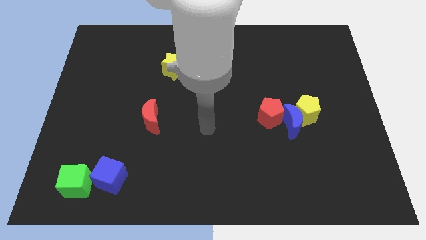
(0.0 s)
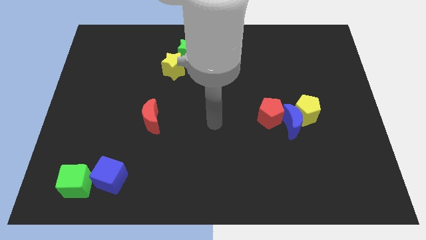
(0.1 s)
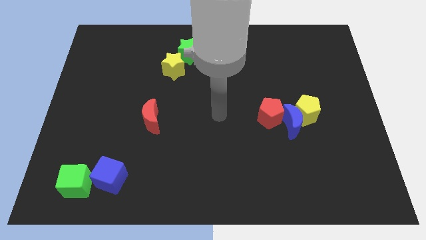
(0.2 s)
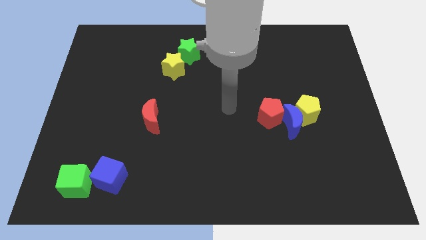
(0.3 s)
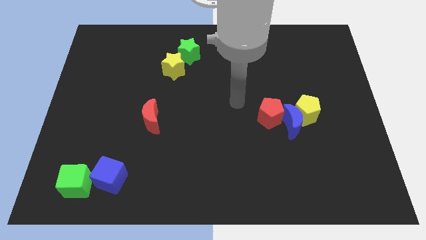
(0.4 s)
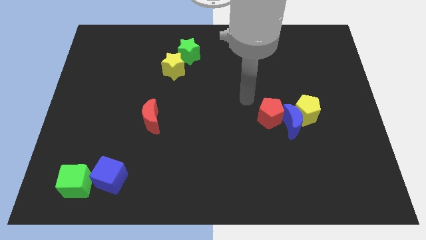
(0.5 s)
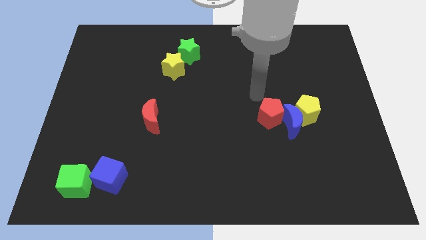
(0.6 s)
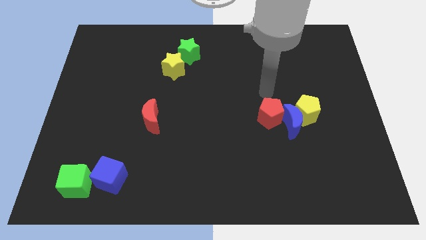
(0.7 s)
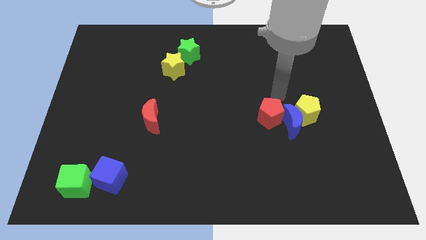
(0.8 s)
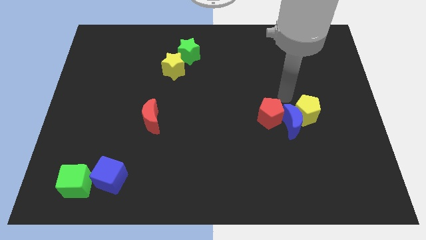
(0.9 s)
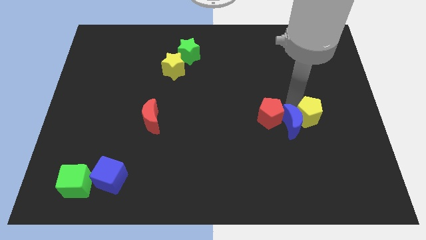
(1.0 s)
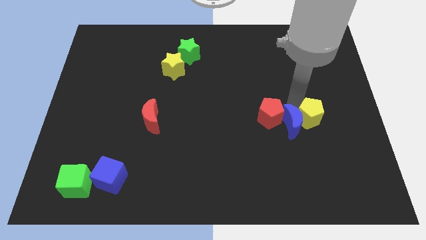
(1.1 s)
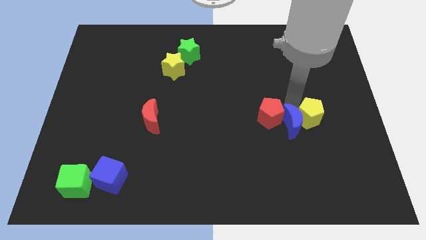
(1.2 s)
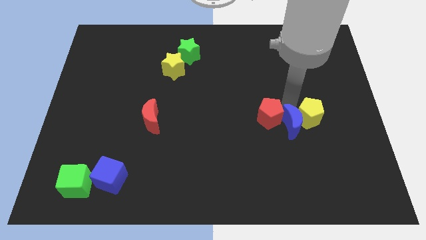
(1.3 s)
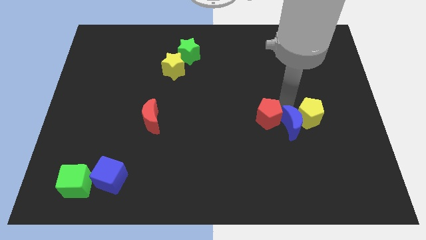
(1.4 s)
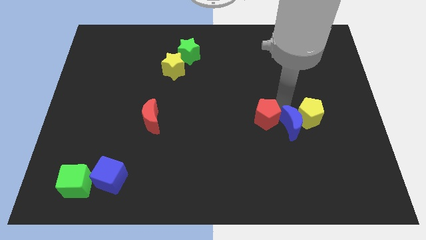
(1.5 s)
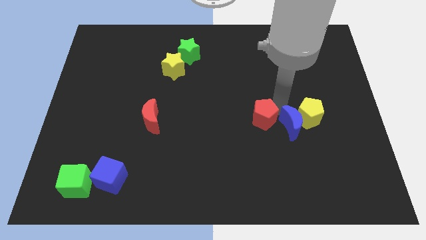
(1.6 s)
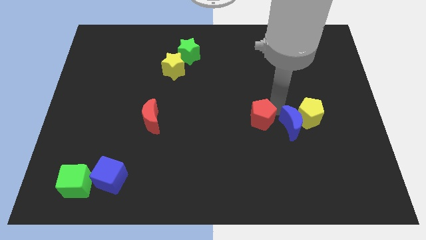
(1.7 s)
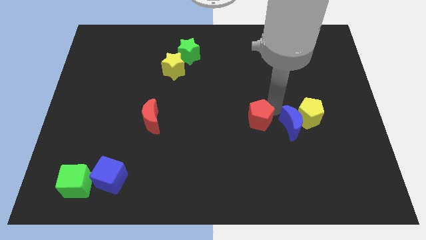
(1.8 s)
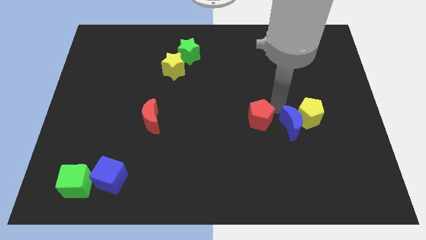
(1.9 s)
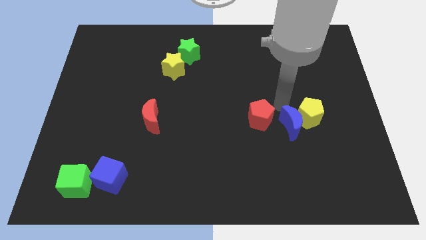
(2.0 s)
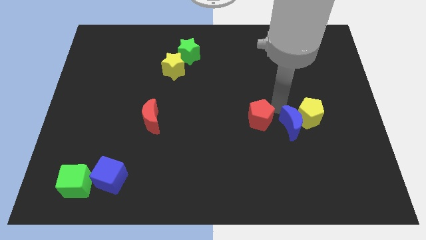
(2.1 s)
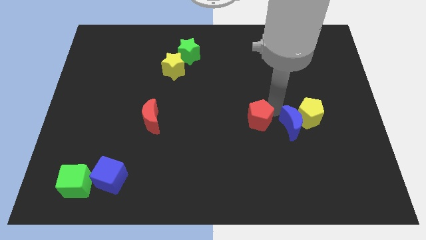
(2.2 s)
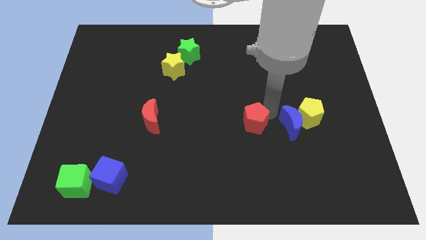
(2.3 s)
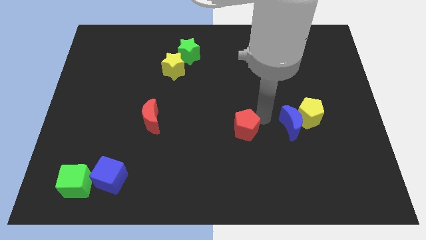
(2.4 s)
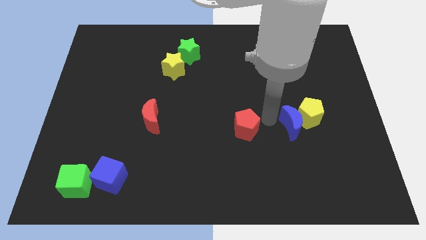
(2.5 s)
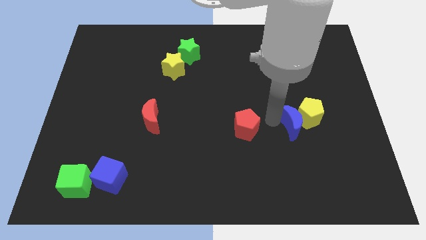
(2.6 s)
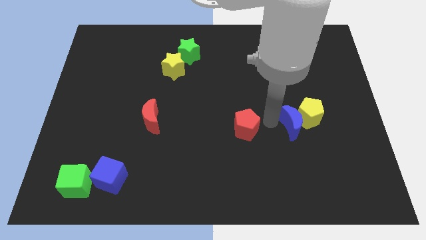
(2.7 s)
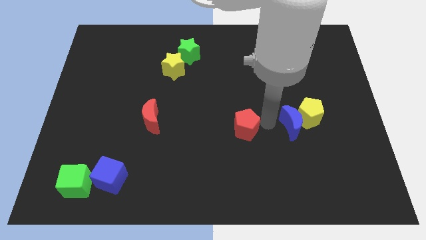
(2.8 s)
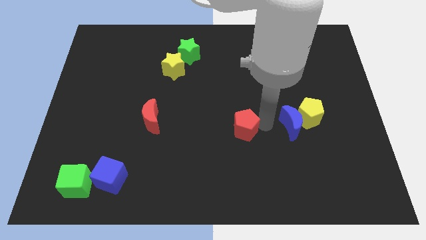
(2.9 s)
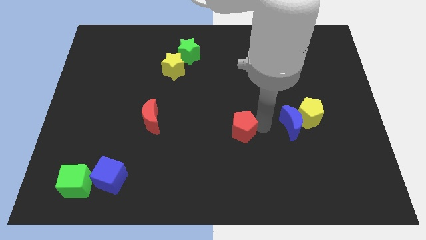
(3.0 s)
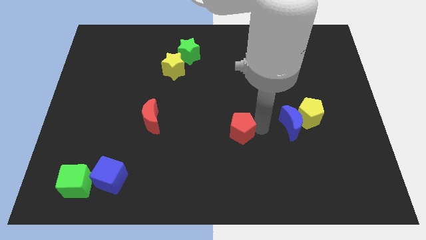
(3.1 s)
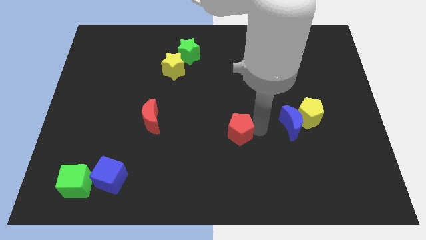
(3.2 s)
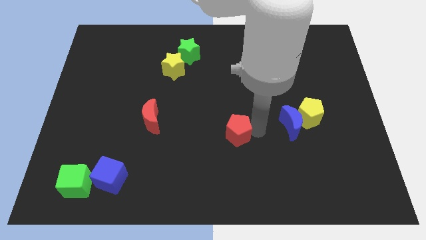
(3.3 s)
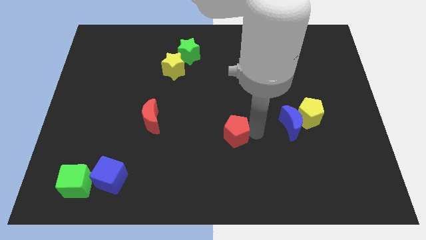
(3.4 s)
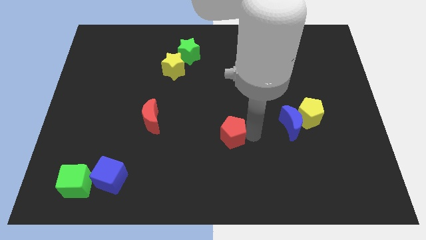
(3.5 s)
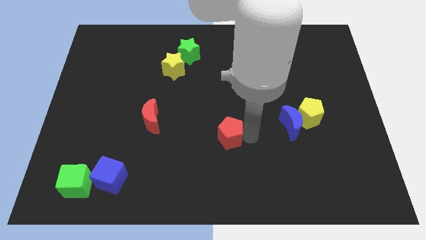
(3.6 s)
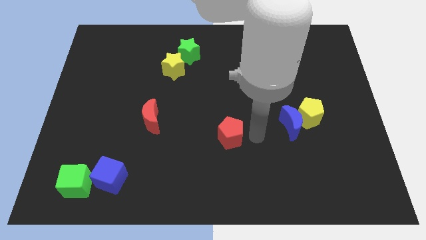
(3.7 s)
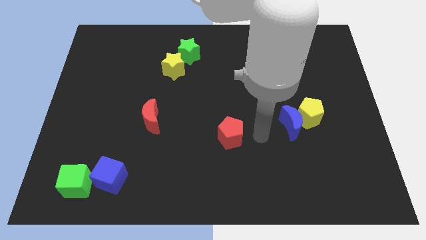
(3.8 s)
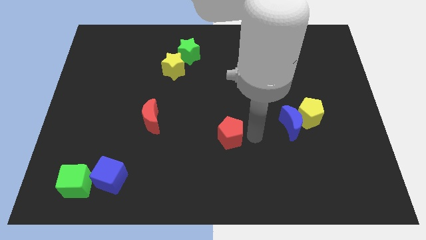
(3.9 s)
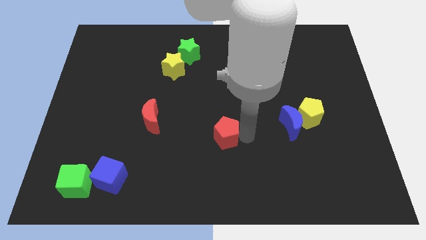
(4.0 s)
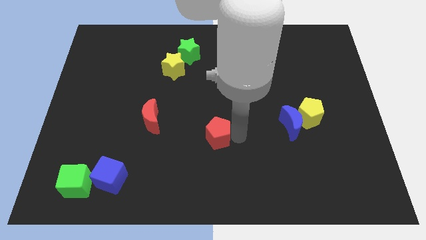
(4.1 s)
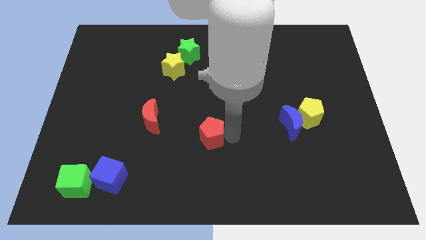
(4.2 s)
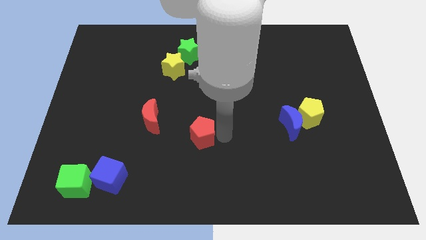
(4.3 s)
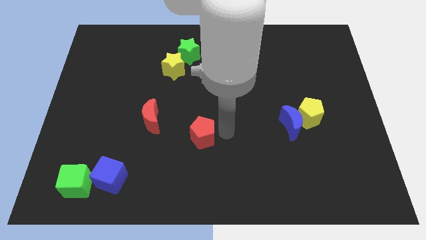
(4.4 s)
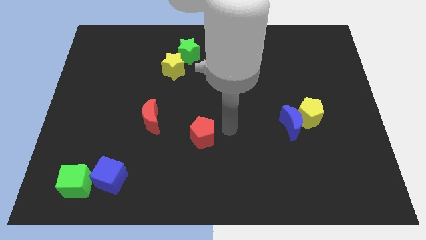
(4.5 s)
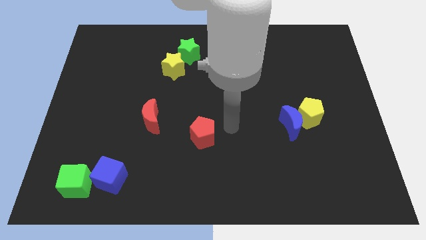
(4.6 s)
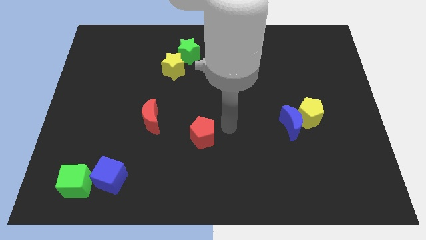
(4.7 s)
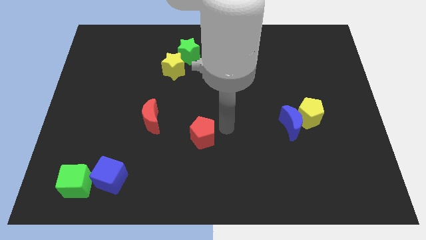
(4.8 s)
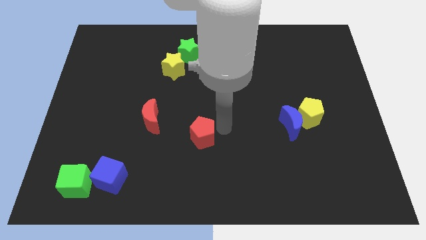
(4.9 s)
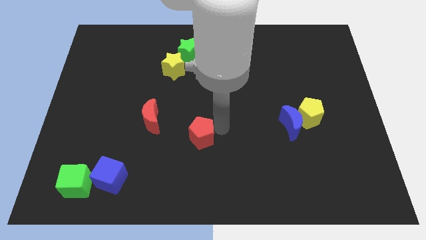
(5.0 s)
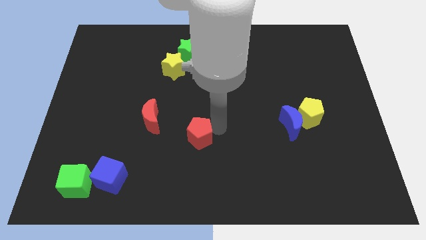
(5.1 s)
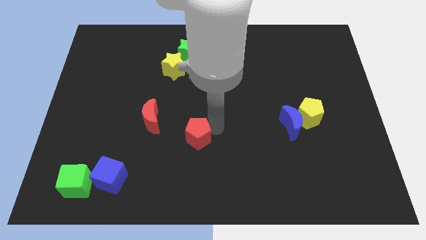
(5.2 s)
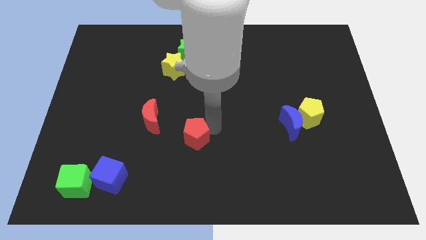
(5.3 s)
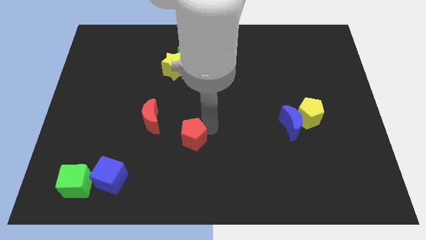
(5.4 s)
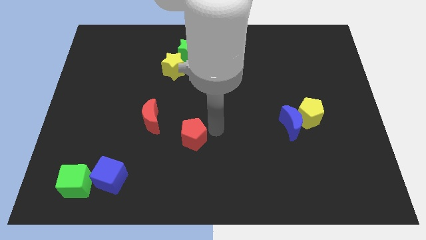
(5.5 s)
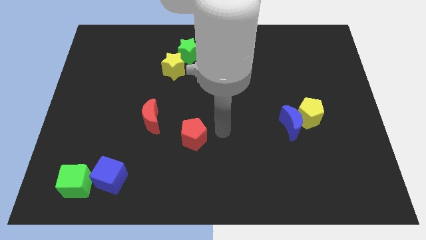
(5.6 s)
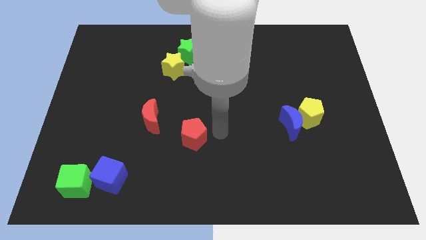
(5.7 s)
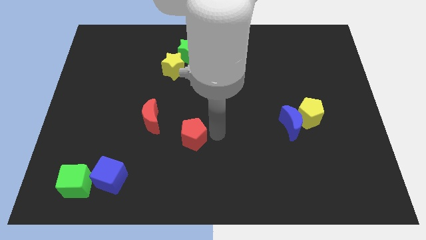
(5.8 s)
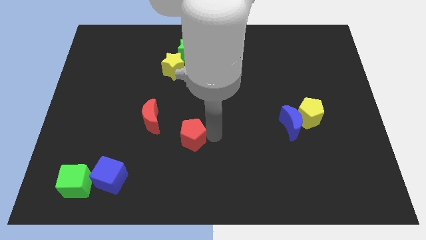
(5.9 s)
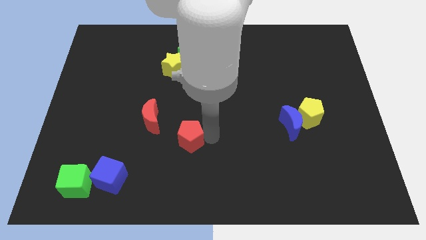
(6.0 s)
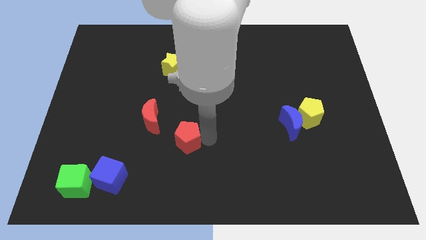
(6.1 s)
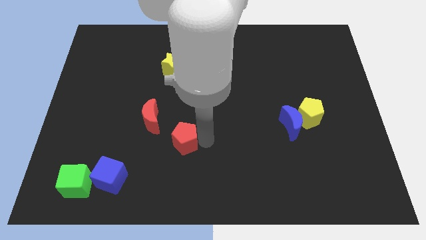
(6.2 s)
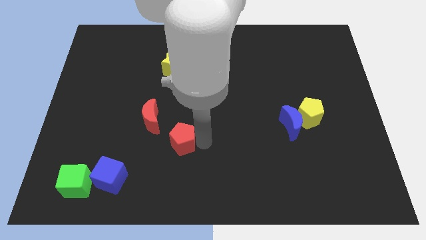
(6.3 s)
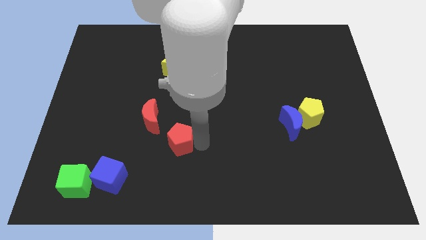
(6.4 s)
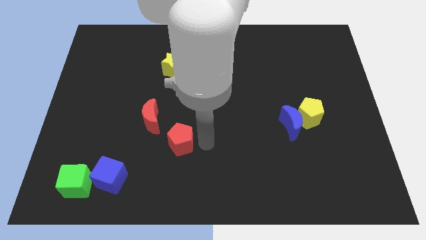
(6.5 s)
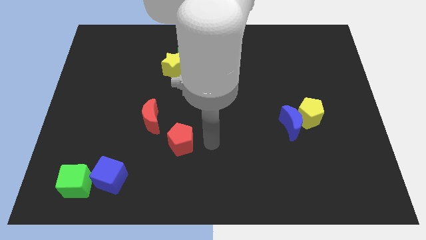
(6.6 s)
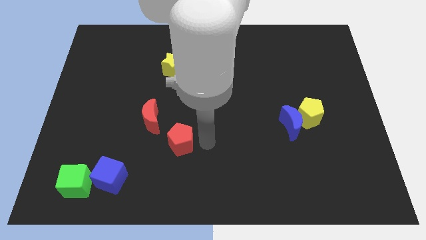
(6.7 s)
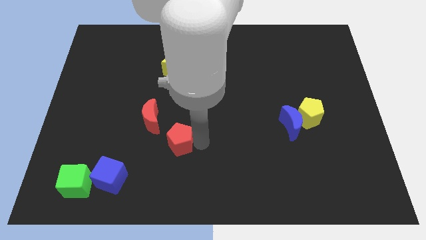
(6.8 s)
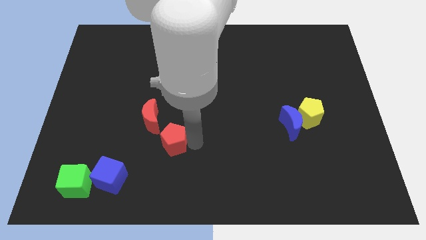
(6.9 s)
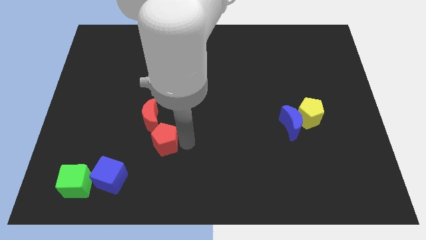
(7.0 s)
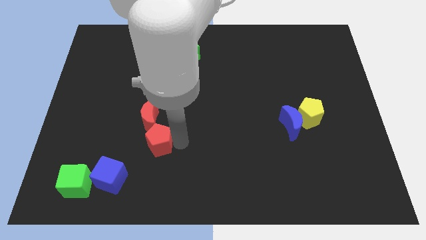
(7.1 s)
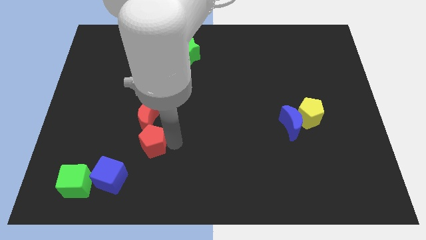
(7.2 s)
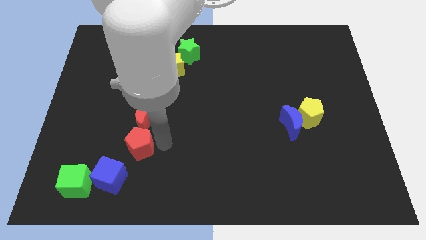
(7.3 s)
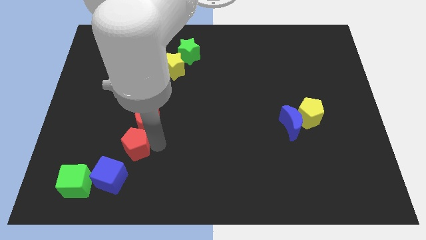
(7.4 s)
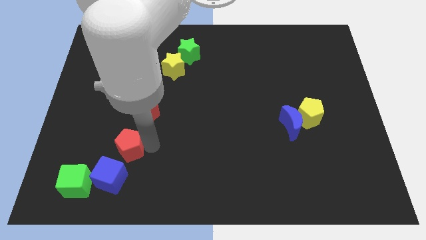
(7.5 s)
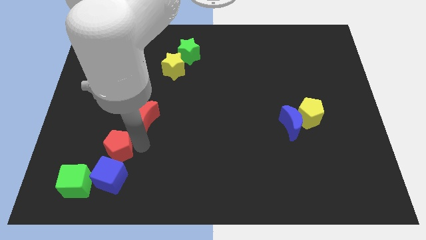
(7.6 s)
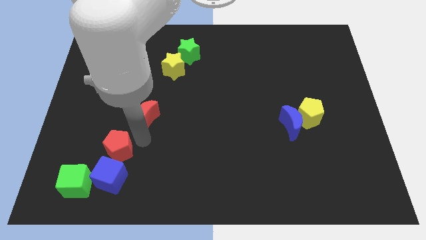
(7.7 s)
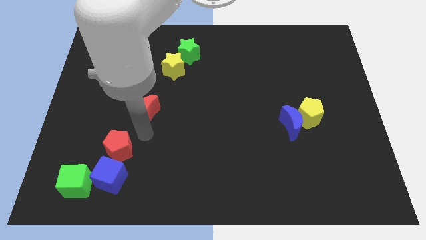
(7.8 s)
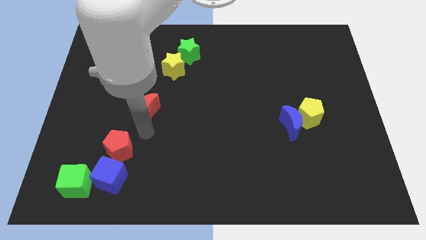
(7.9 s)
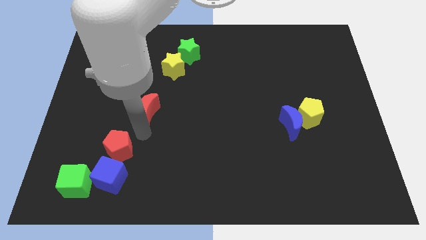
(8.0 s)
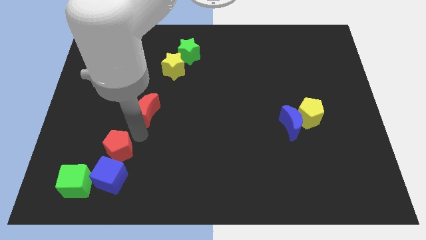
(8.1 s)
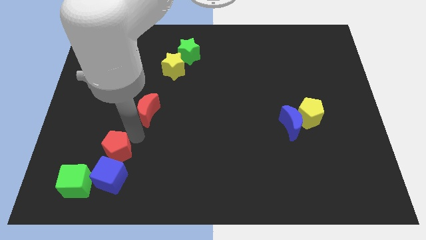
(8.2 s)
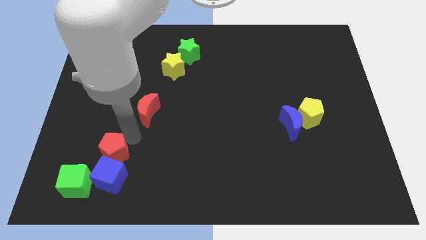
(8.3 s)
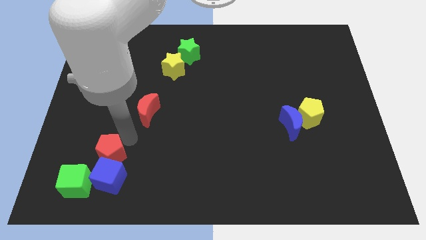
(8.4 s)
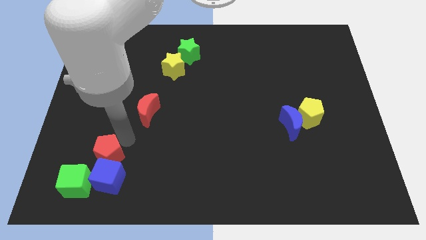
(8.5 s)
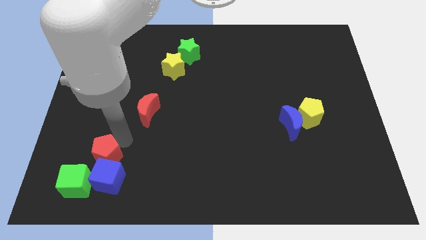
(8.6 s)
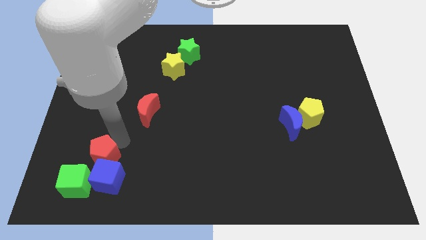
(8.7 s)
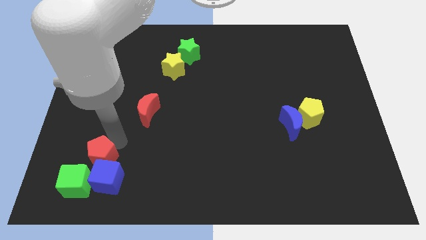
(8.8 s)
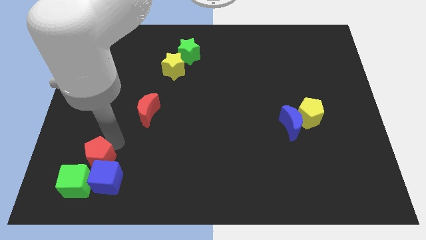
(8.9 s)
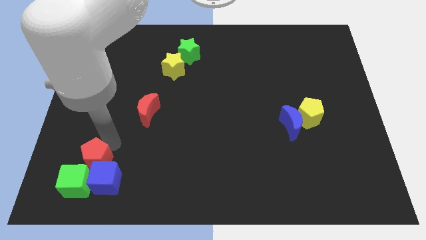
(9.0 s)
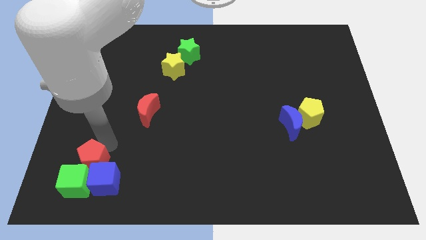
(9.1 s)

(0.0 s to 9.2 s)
slide the red pentagon to the green cube
